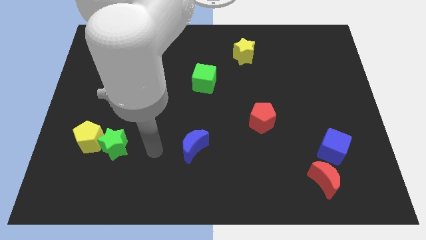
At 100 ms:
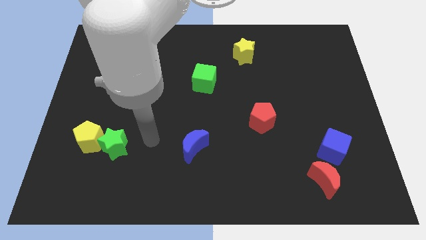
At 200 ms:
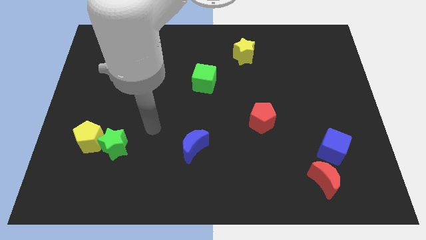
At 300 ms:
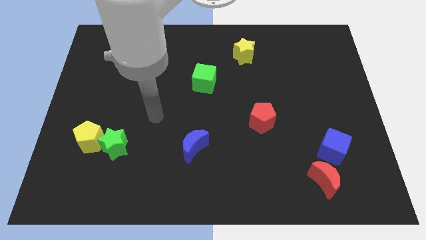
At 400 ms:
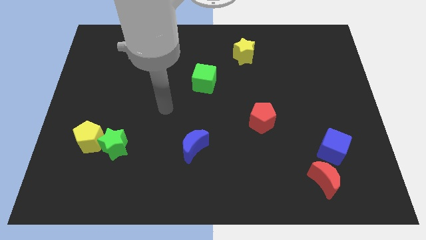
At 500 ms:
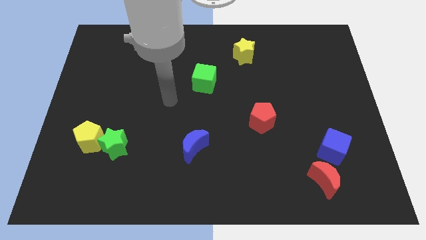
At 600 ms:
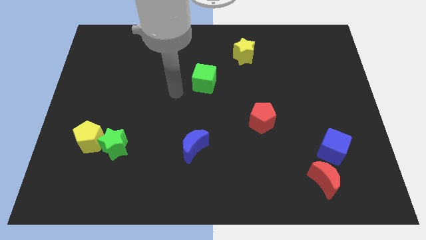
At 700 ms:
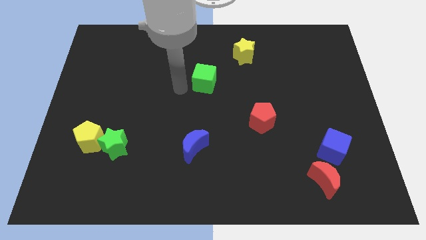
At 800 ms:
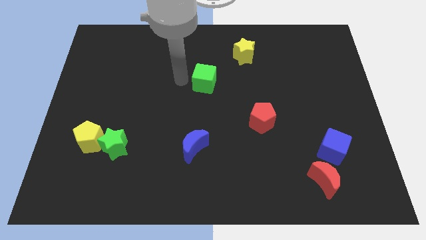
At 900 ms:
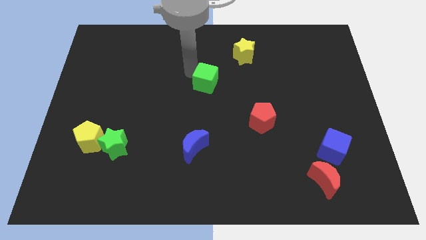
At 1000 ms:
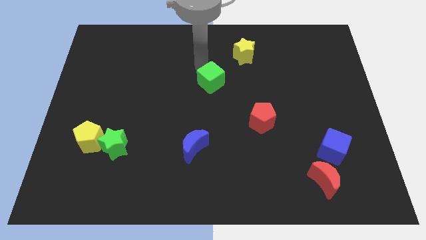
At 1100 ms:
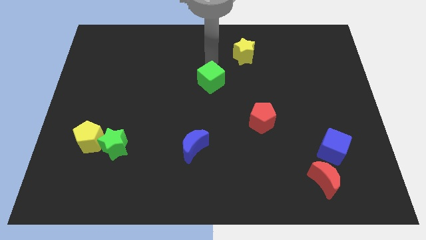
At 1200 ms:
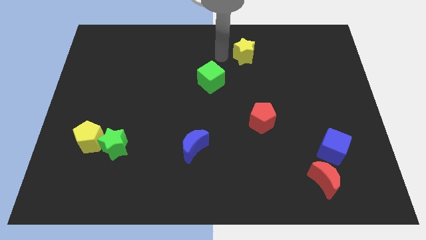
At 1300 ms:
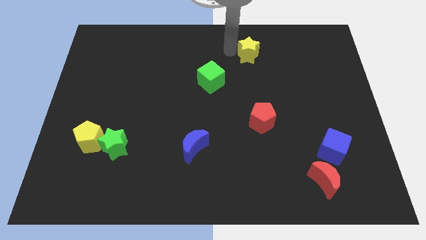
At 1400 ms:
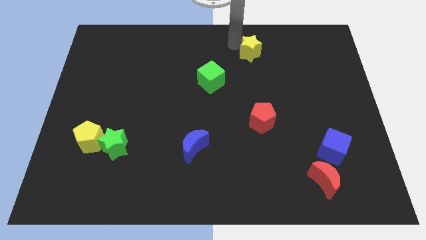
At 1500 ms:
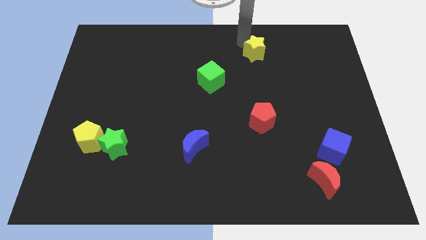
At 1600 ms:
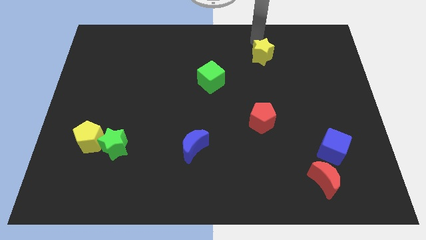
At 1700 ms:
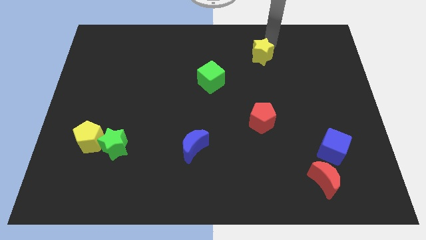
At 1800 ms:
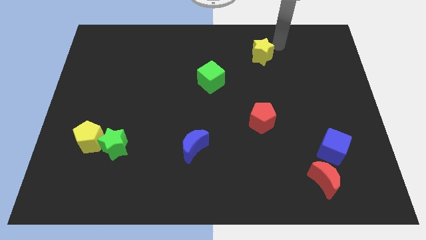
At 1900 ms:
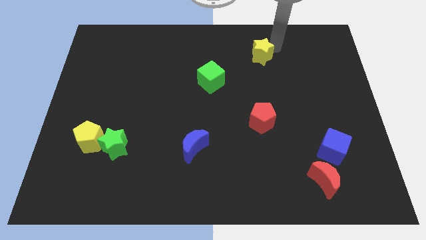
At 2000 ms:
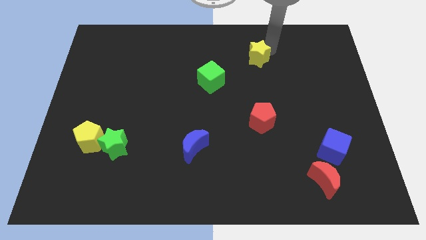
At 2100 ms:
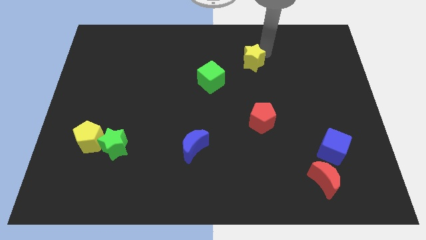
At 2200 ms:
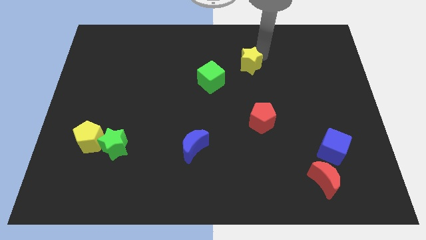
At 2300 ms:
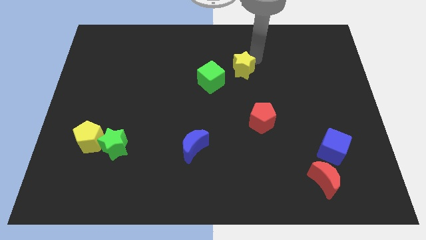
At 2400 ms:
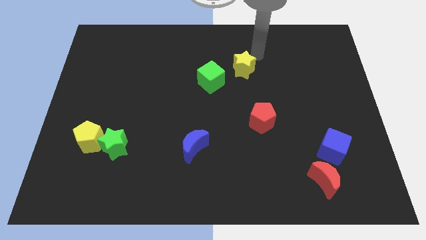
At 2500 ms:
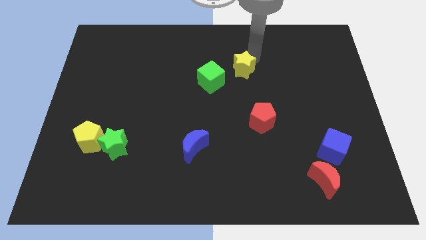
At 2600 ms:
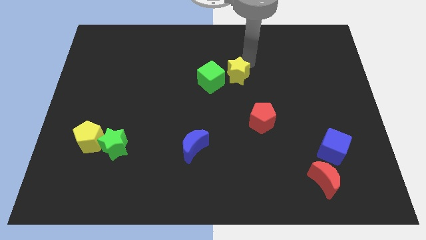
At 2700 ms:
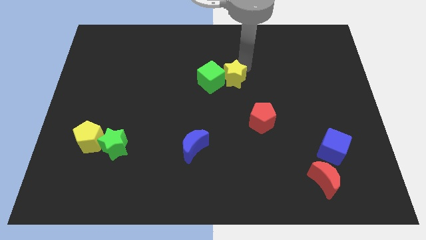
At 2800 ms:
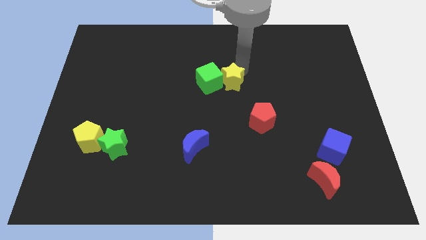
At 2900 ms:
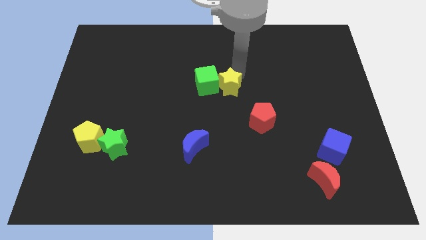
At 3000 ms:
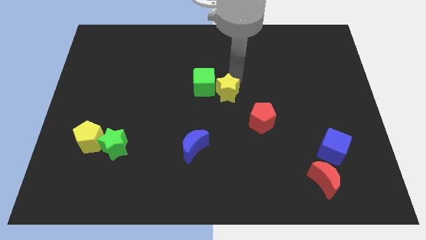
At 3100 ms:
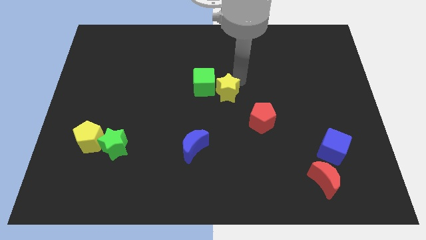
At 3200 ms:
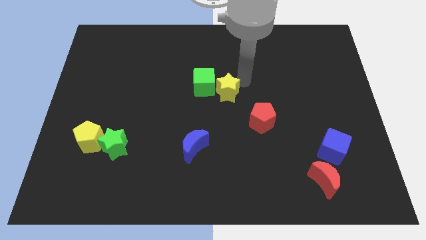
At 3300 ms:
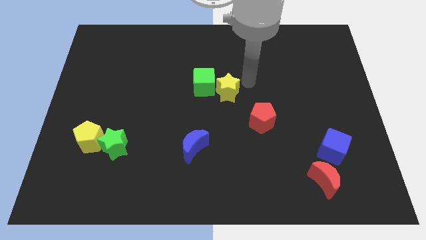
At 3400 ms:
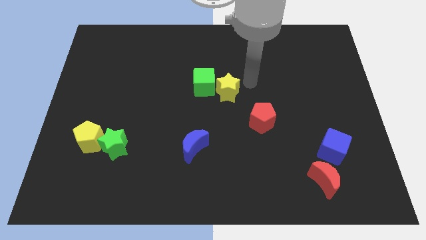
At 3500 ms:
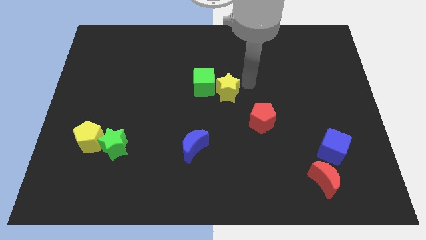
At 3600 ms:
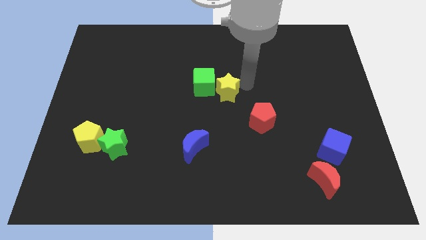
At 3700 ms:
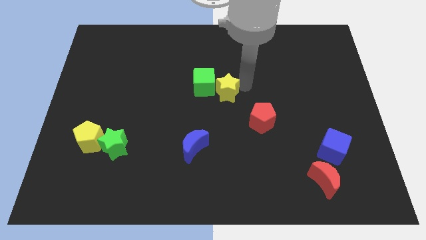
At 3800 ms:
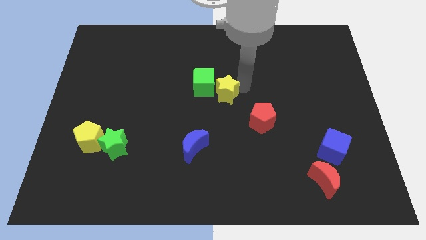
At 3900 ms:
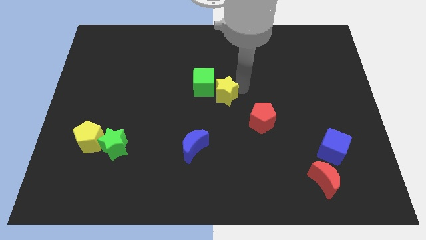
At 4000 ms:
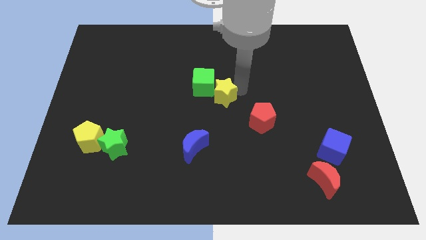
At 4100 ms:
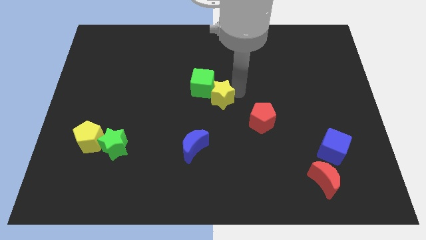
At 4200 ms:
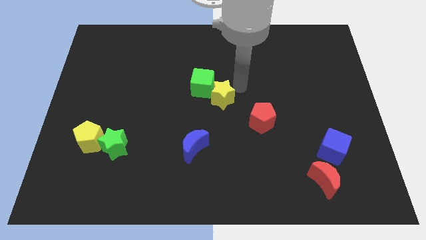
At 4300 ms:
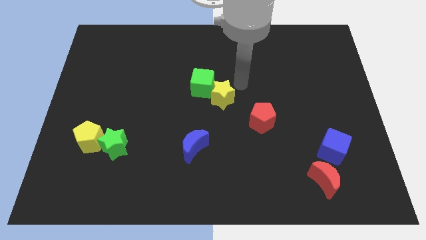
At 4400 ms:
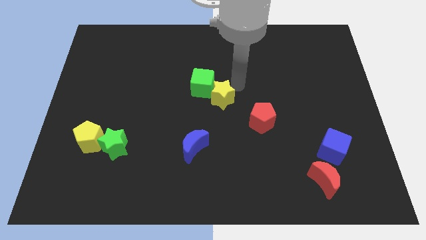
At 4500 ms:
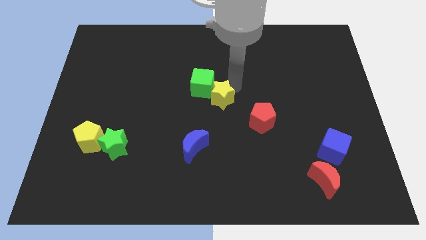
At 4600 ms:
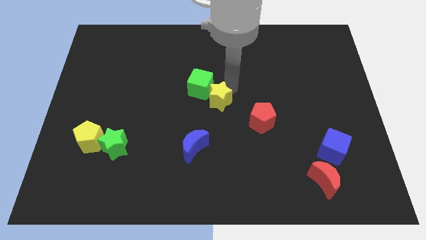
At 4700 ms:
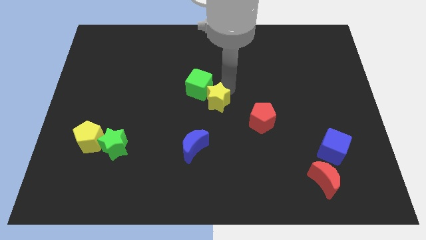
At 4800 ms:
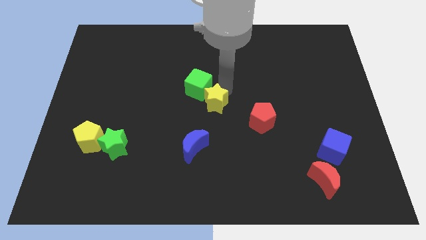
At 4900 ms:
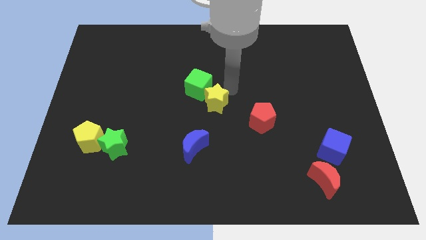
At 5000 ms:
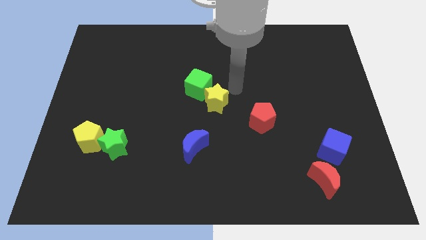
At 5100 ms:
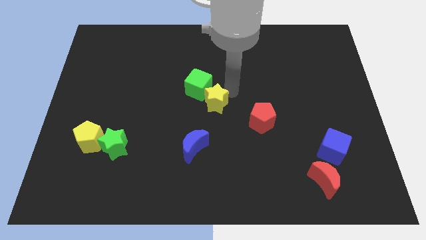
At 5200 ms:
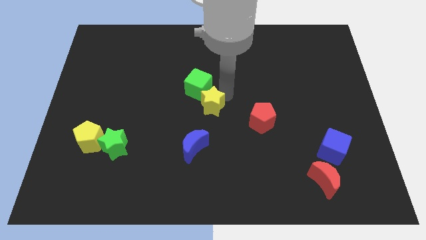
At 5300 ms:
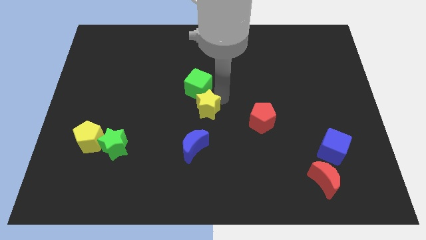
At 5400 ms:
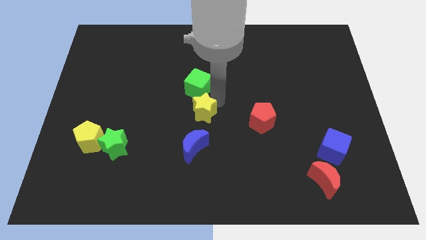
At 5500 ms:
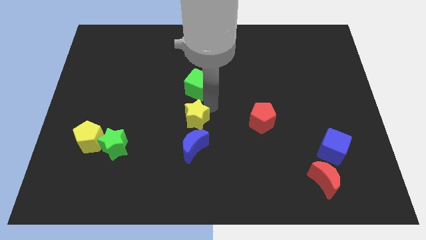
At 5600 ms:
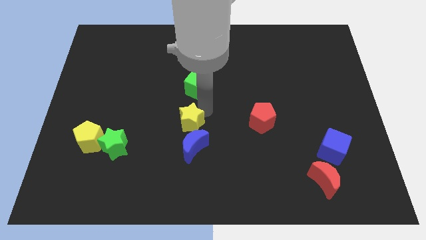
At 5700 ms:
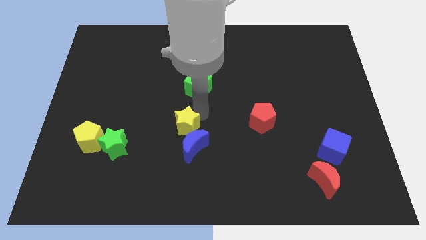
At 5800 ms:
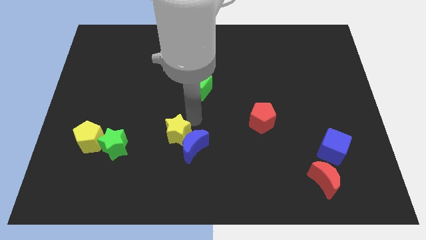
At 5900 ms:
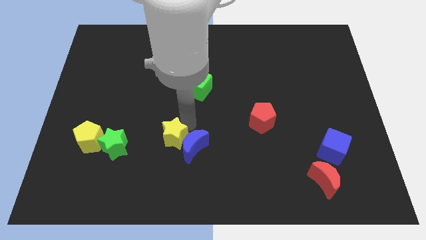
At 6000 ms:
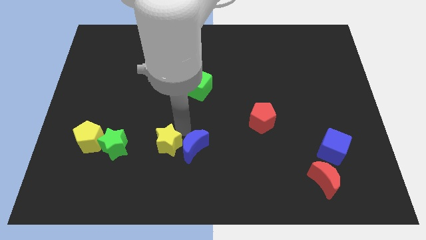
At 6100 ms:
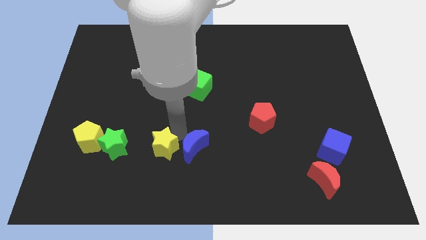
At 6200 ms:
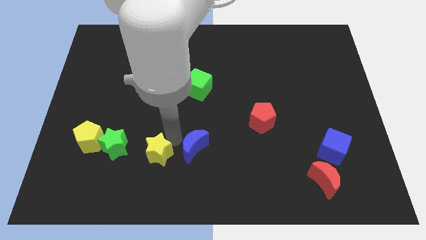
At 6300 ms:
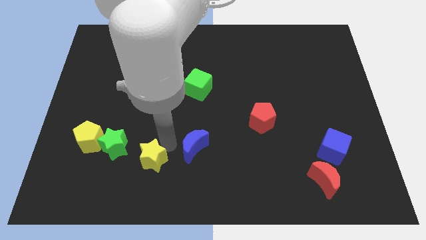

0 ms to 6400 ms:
move the yellow star diagonally down and to the right of the green star
